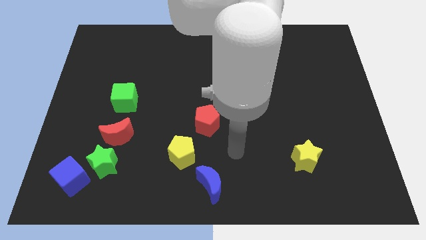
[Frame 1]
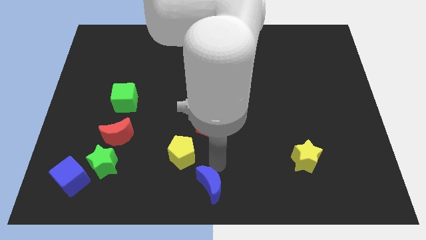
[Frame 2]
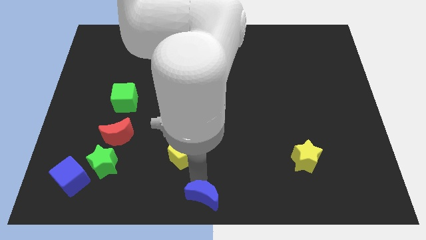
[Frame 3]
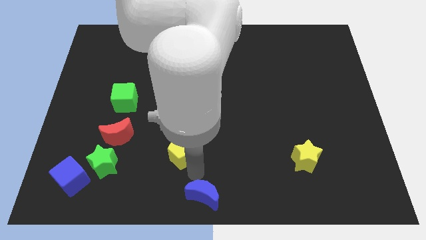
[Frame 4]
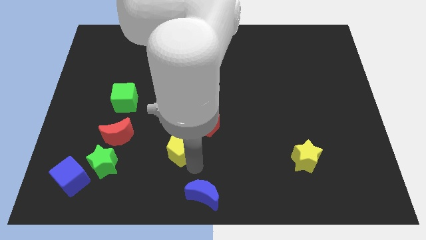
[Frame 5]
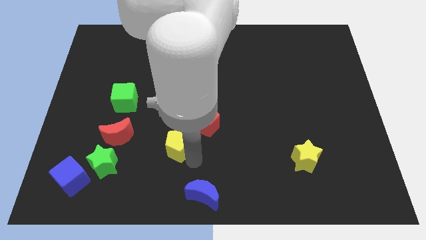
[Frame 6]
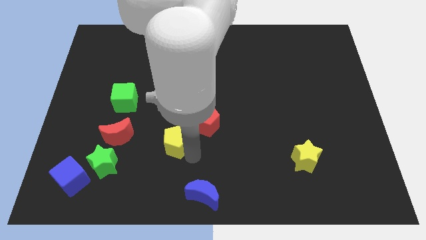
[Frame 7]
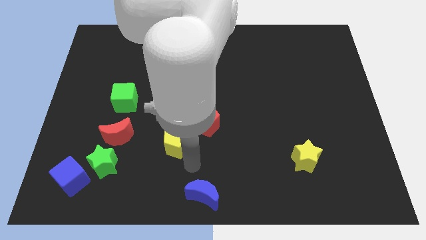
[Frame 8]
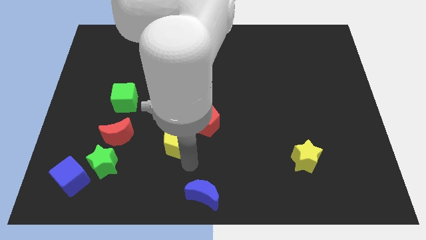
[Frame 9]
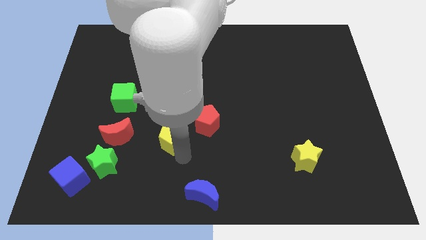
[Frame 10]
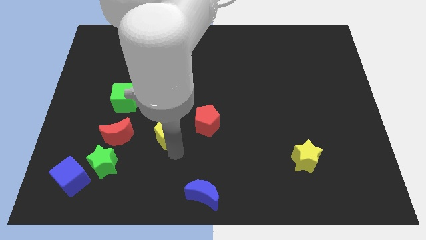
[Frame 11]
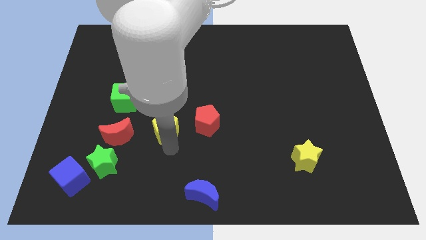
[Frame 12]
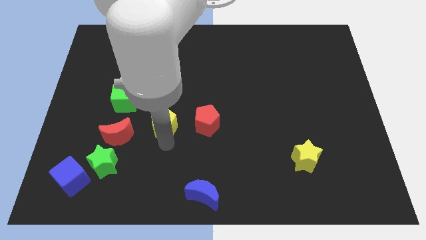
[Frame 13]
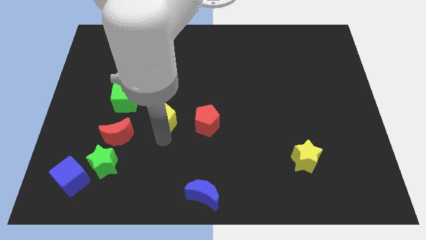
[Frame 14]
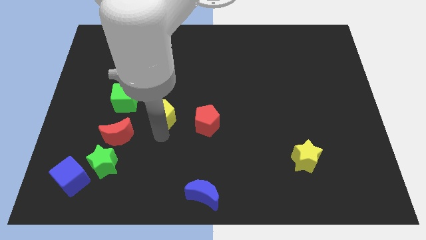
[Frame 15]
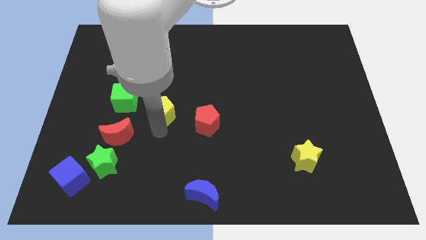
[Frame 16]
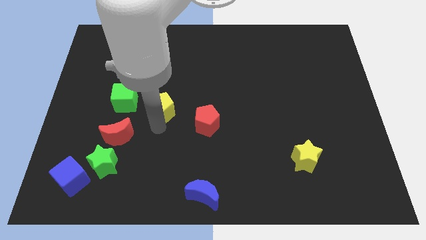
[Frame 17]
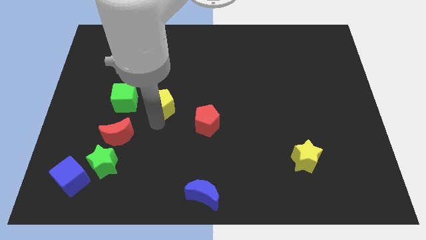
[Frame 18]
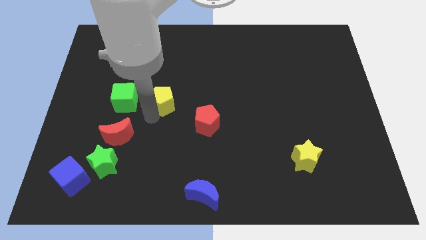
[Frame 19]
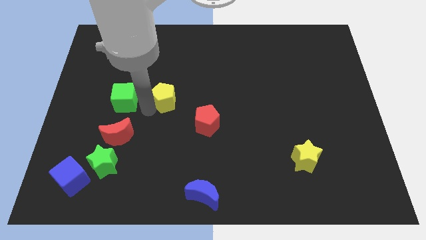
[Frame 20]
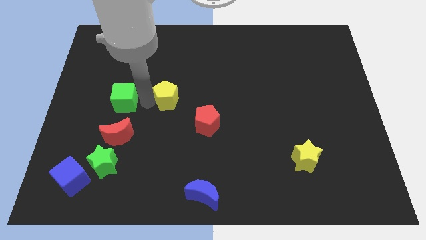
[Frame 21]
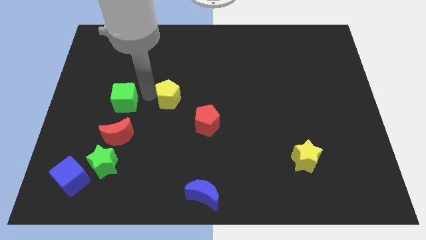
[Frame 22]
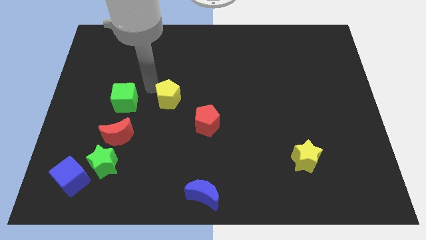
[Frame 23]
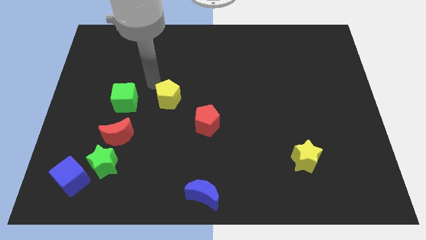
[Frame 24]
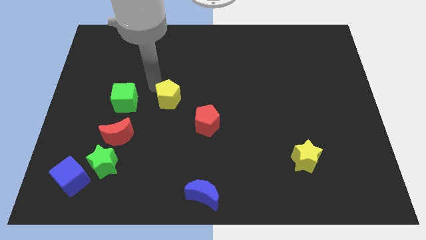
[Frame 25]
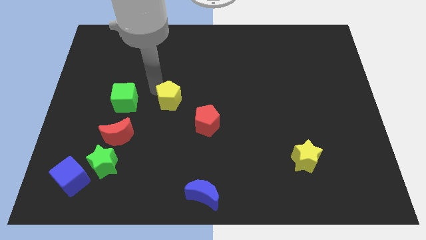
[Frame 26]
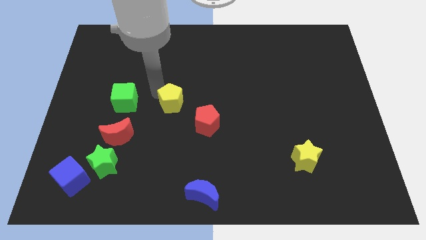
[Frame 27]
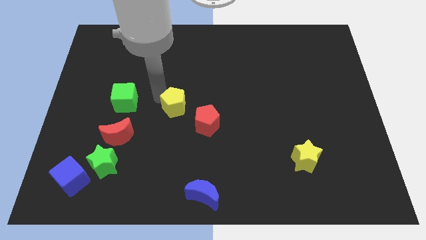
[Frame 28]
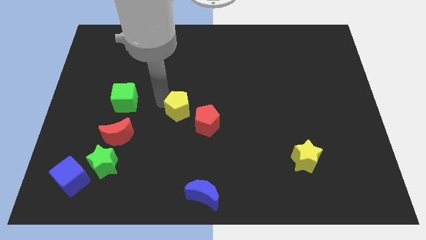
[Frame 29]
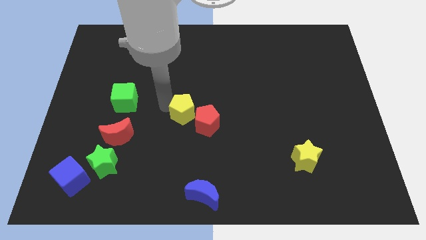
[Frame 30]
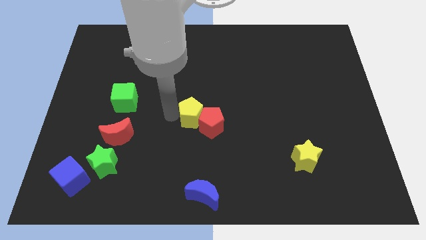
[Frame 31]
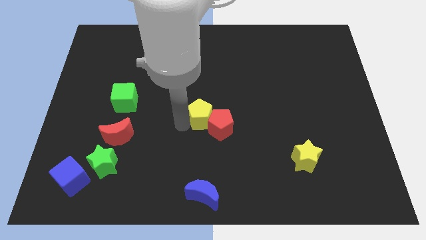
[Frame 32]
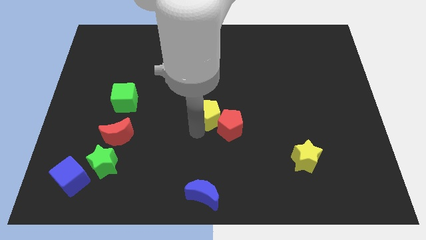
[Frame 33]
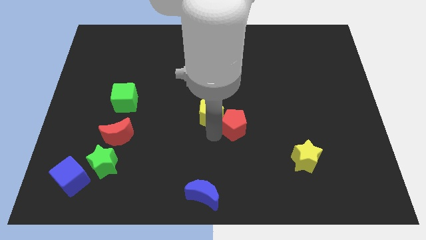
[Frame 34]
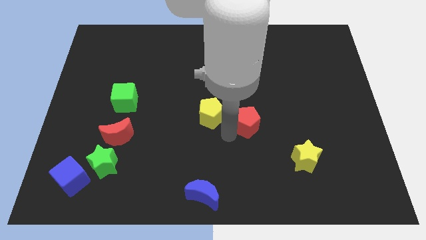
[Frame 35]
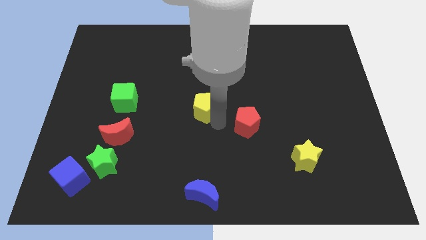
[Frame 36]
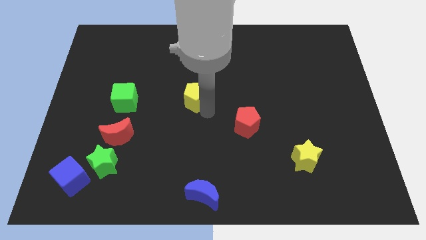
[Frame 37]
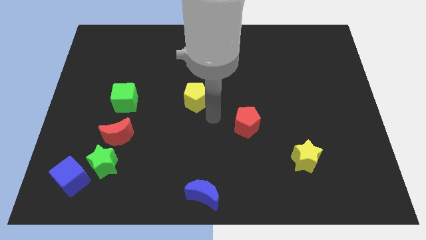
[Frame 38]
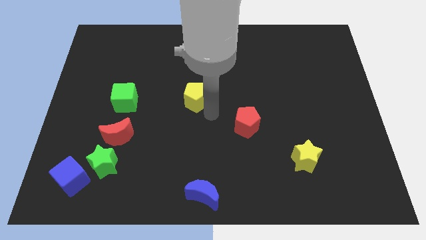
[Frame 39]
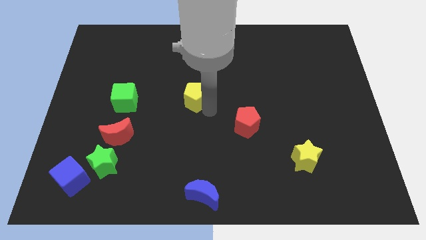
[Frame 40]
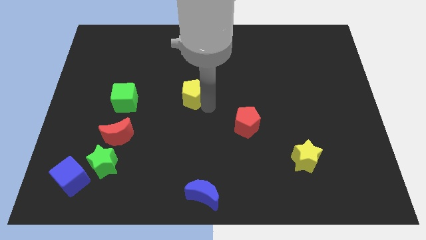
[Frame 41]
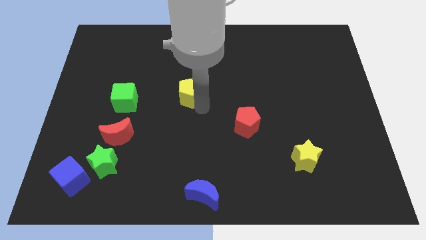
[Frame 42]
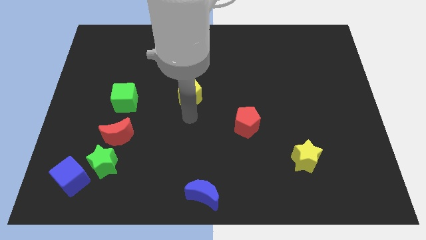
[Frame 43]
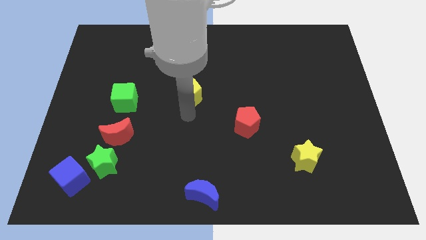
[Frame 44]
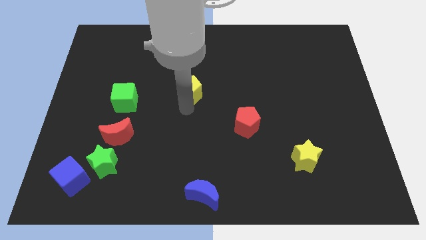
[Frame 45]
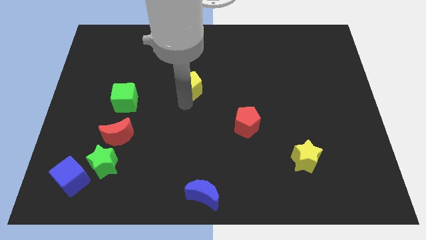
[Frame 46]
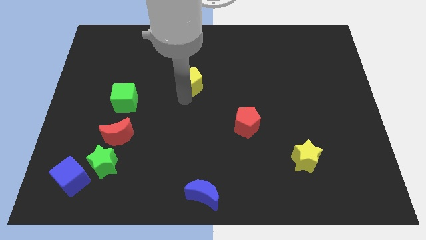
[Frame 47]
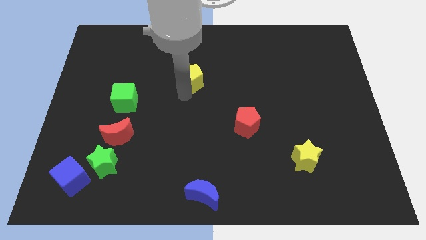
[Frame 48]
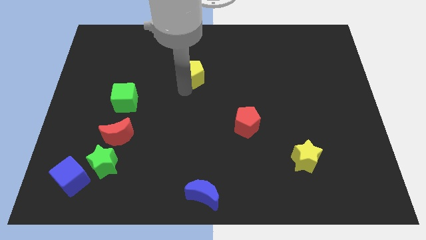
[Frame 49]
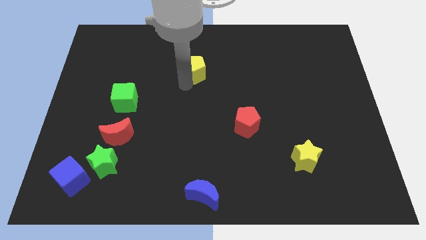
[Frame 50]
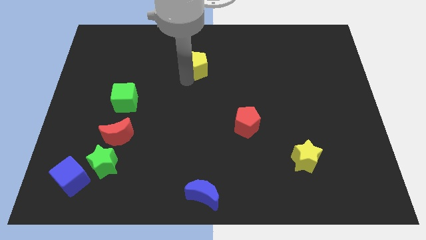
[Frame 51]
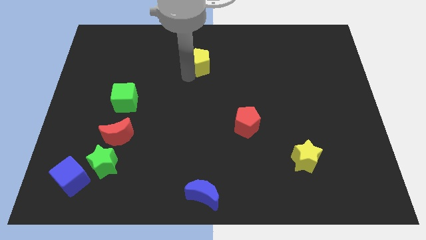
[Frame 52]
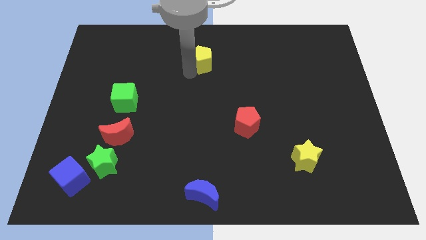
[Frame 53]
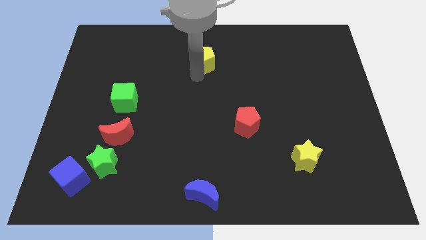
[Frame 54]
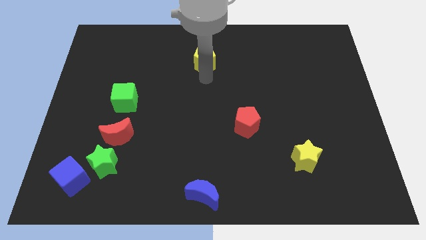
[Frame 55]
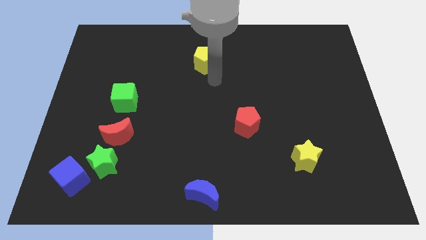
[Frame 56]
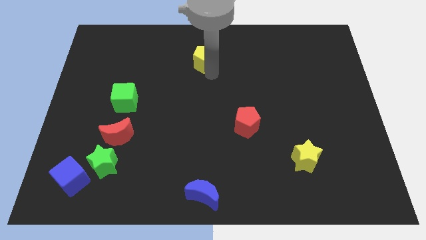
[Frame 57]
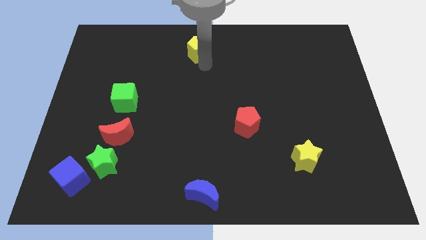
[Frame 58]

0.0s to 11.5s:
put the yellow pentagon to the top

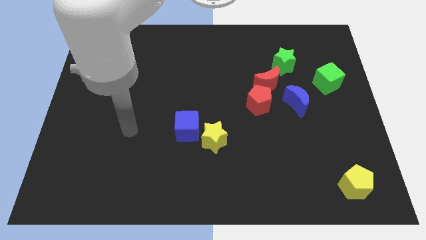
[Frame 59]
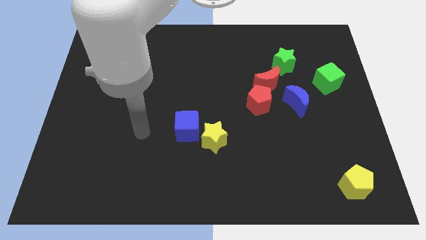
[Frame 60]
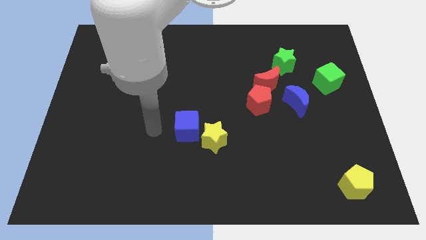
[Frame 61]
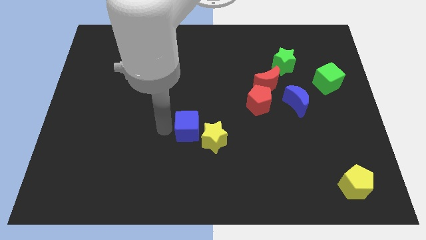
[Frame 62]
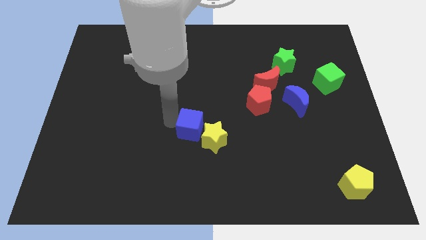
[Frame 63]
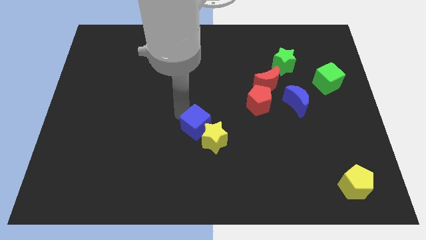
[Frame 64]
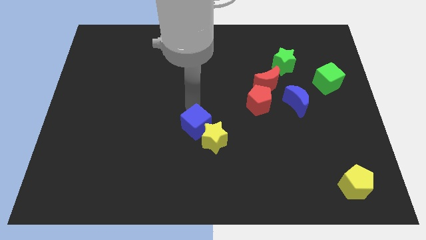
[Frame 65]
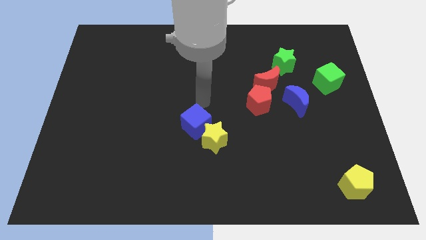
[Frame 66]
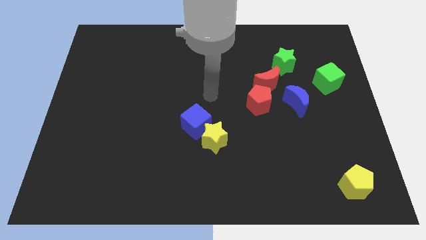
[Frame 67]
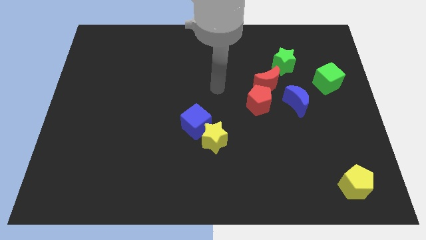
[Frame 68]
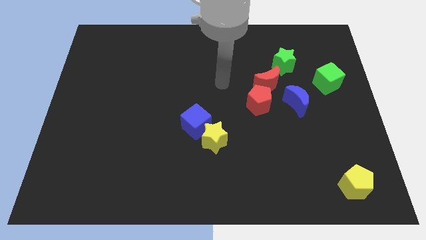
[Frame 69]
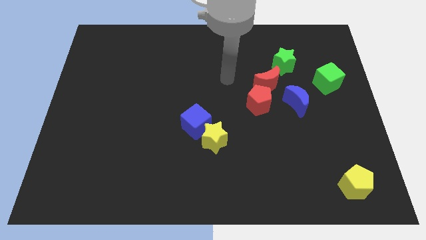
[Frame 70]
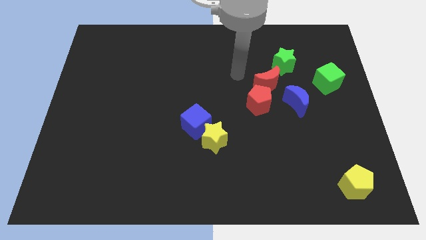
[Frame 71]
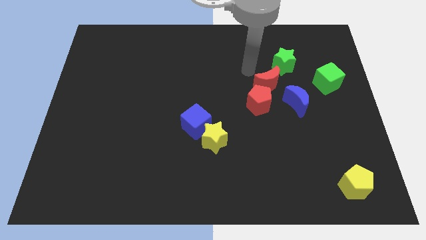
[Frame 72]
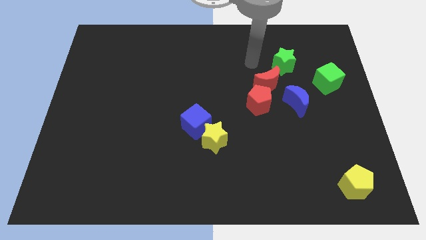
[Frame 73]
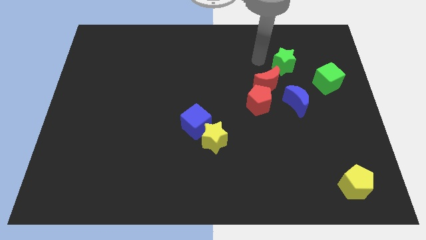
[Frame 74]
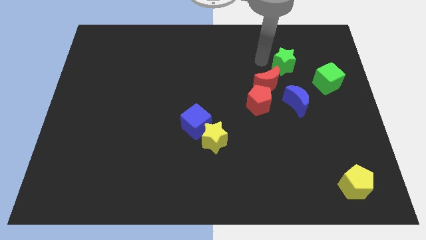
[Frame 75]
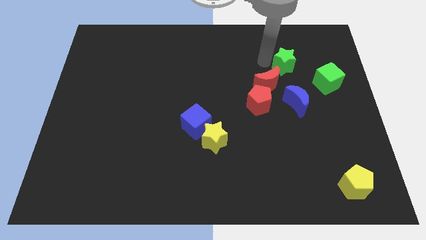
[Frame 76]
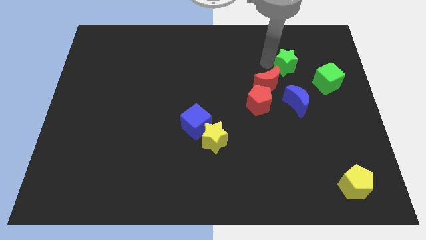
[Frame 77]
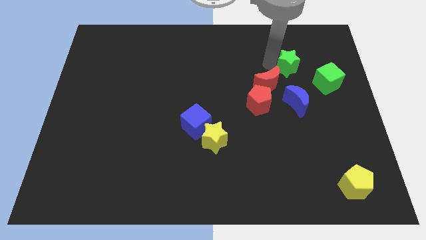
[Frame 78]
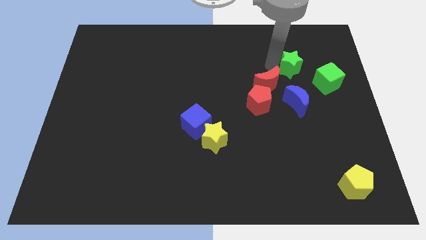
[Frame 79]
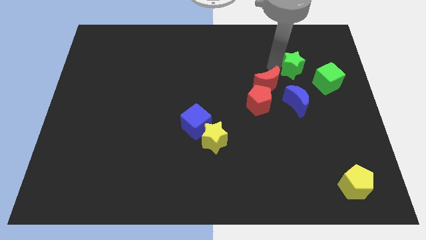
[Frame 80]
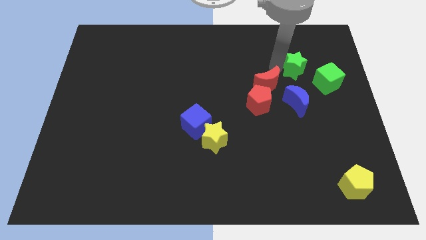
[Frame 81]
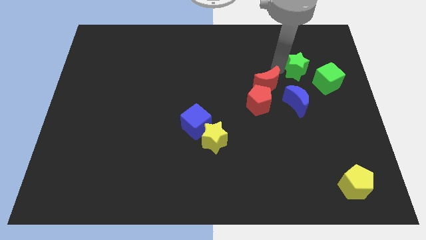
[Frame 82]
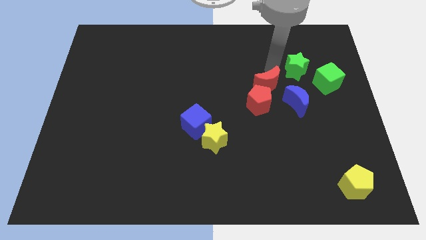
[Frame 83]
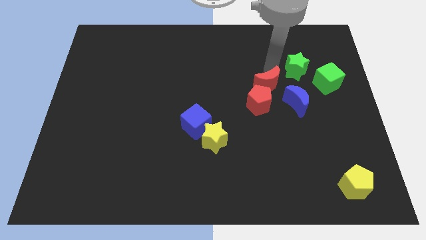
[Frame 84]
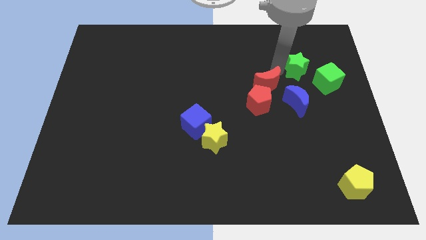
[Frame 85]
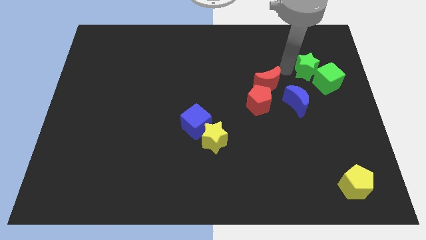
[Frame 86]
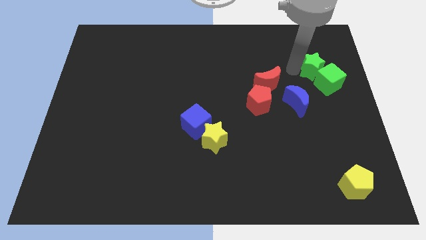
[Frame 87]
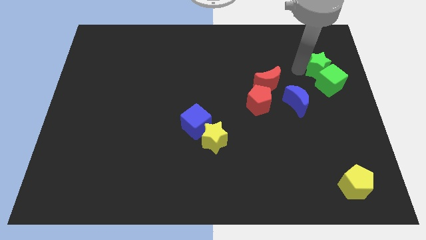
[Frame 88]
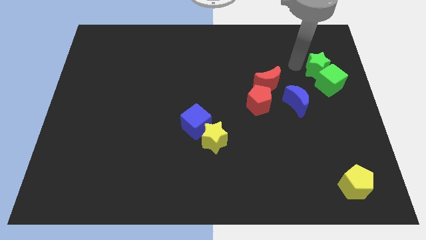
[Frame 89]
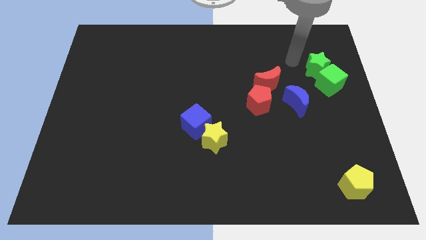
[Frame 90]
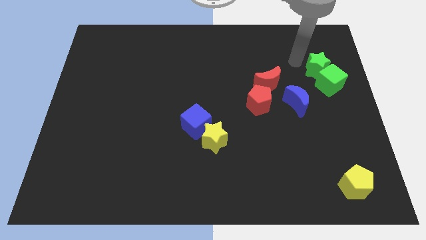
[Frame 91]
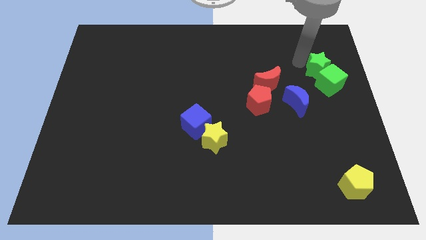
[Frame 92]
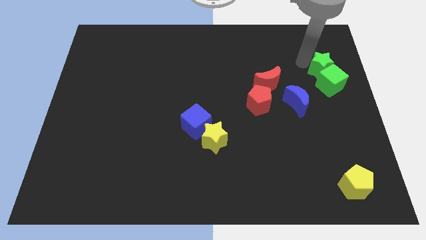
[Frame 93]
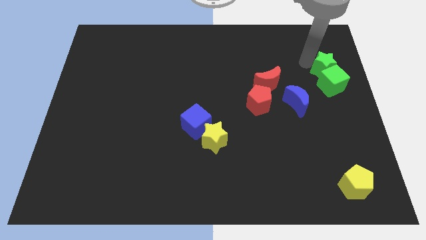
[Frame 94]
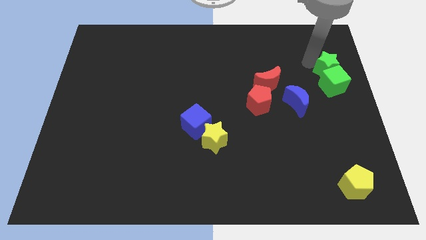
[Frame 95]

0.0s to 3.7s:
slide the green star to the right side of the board
